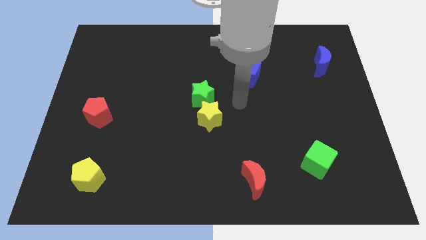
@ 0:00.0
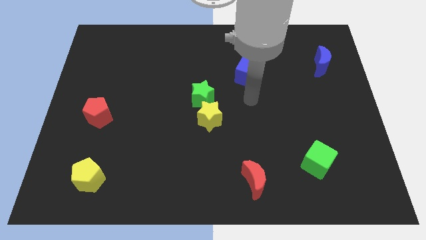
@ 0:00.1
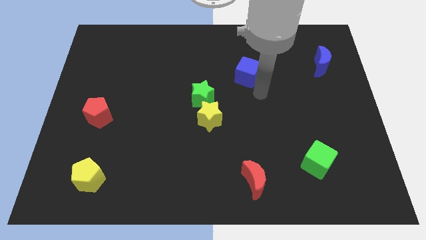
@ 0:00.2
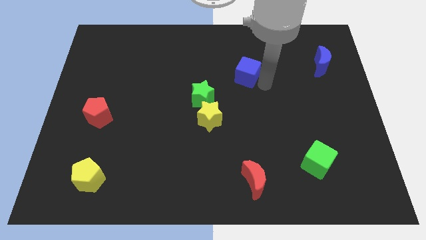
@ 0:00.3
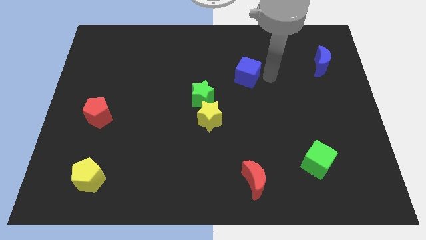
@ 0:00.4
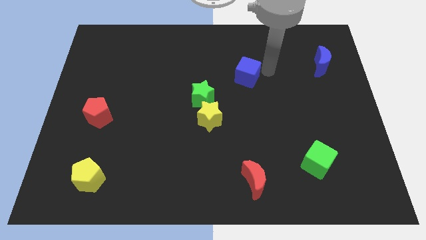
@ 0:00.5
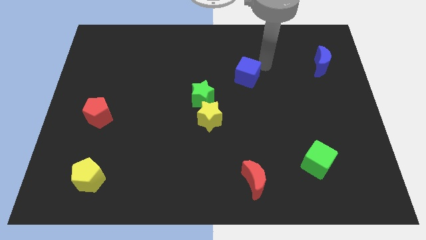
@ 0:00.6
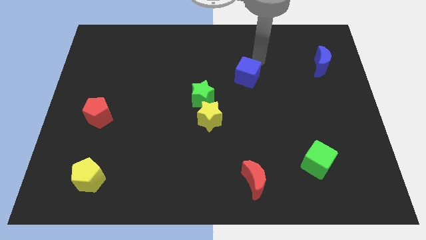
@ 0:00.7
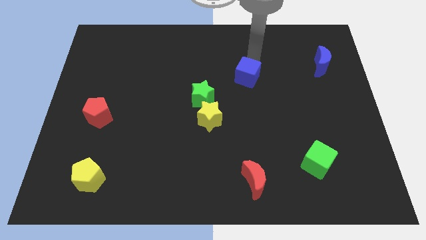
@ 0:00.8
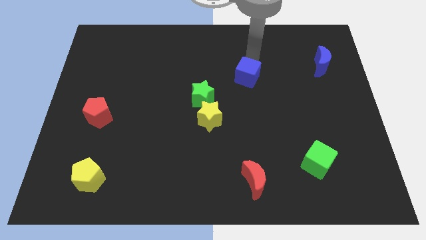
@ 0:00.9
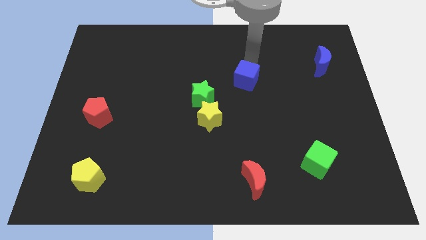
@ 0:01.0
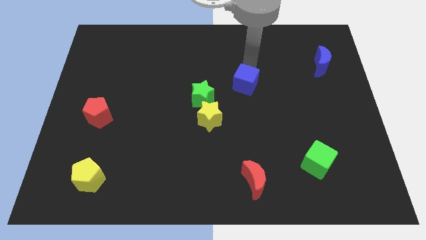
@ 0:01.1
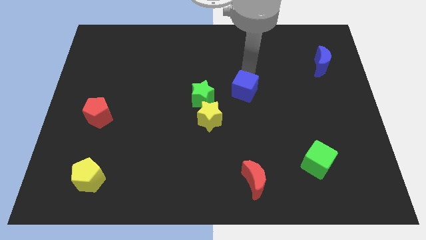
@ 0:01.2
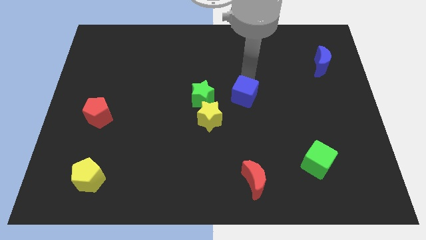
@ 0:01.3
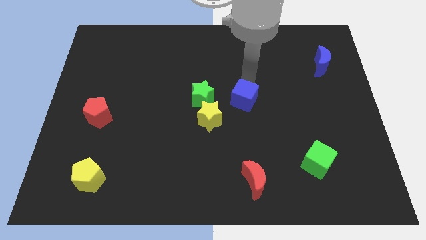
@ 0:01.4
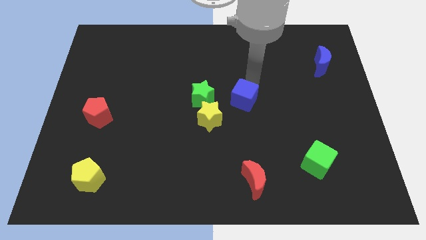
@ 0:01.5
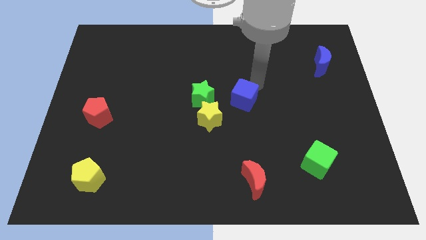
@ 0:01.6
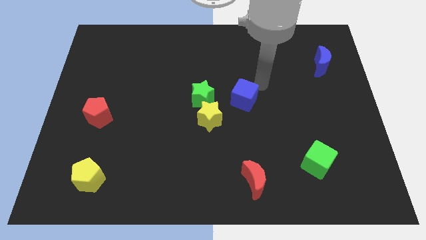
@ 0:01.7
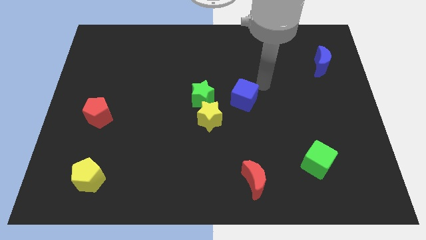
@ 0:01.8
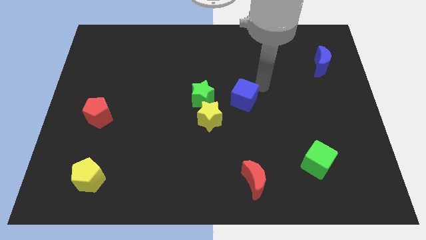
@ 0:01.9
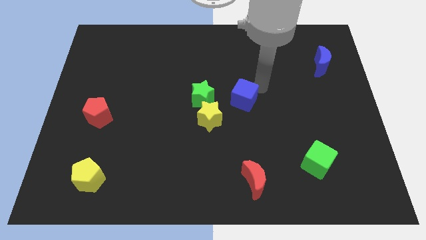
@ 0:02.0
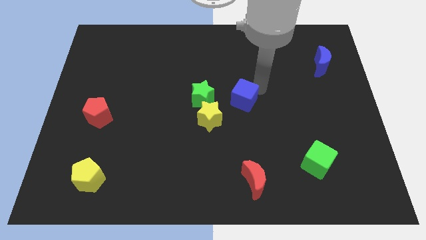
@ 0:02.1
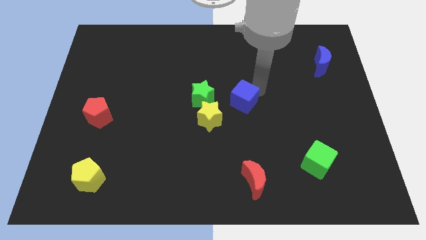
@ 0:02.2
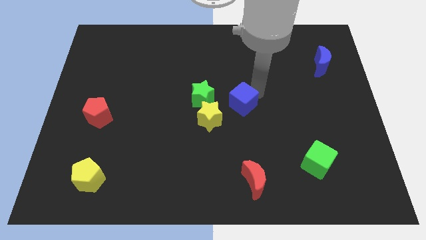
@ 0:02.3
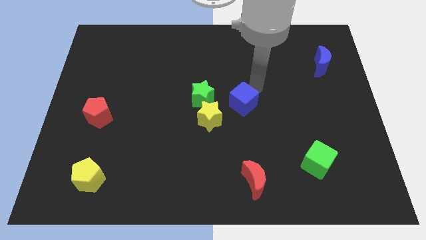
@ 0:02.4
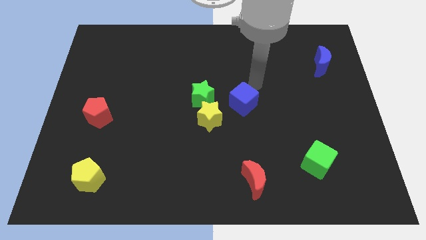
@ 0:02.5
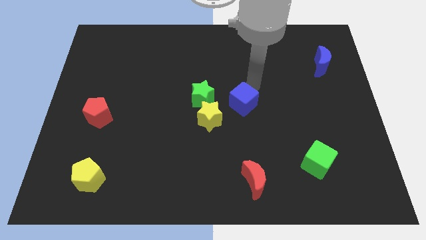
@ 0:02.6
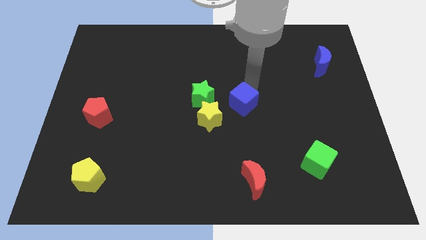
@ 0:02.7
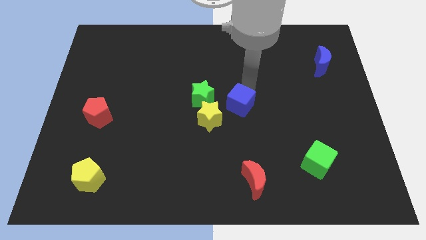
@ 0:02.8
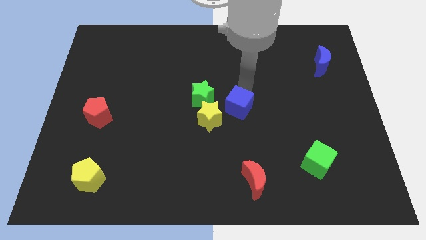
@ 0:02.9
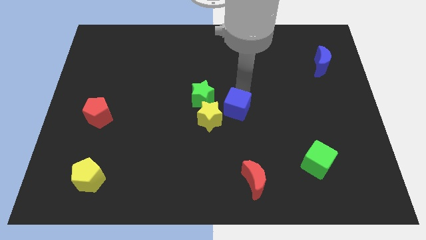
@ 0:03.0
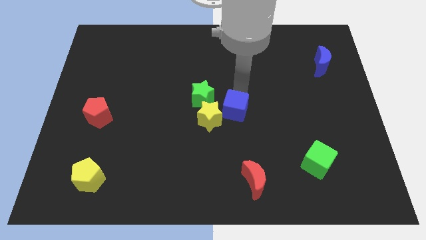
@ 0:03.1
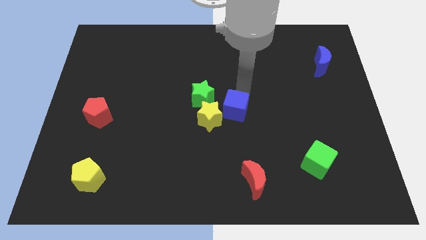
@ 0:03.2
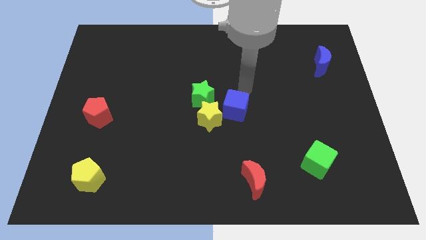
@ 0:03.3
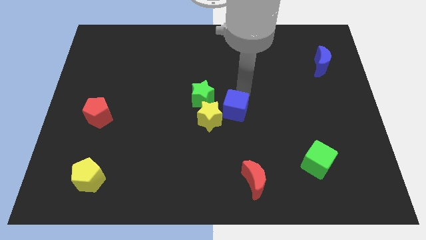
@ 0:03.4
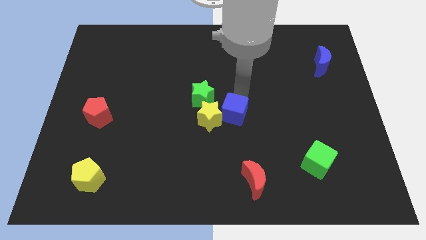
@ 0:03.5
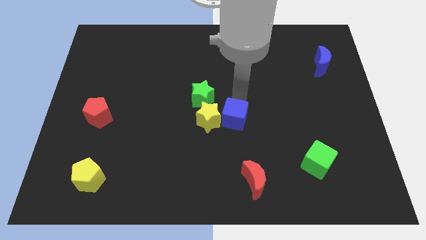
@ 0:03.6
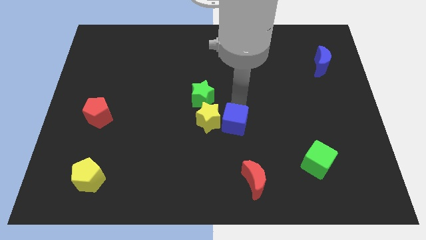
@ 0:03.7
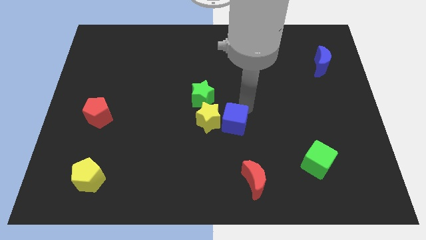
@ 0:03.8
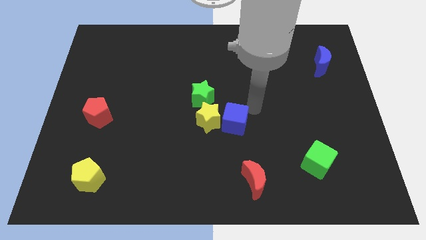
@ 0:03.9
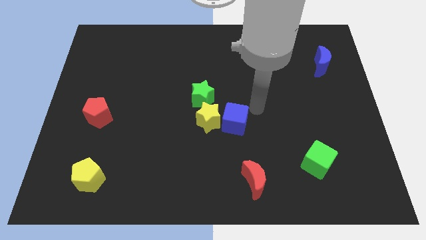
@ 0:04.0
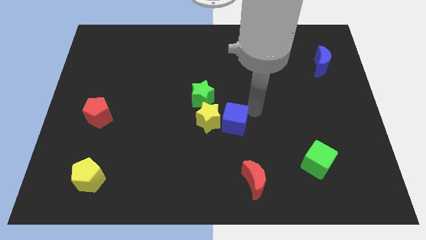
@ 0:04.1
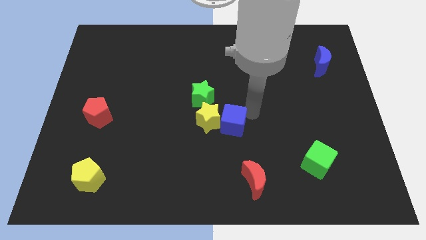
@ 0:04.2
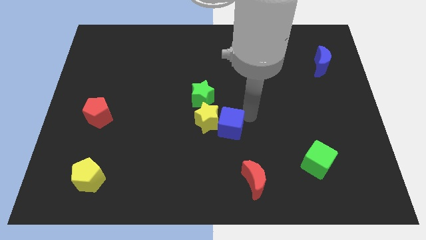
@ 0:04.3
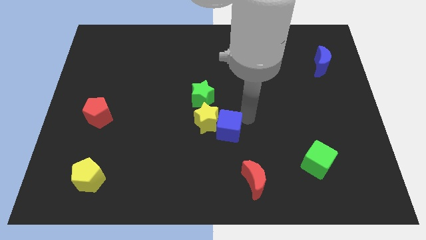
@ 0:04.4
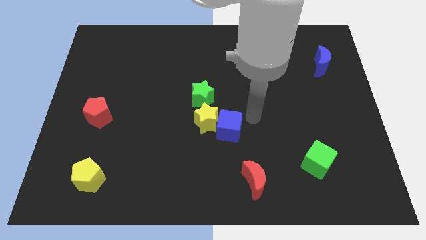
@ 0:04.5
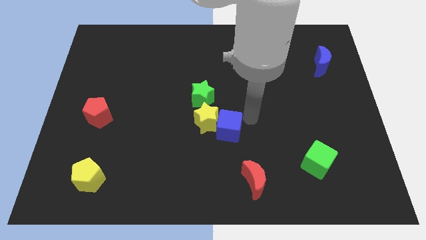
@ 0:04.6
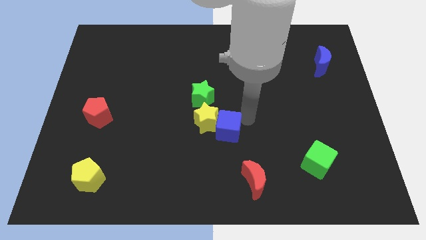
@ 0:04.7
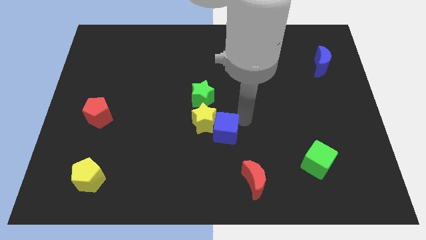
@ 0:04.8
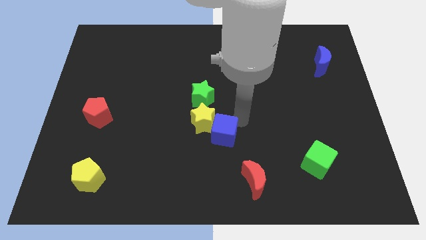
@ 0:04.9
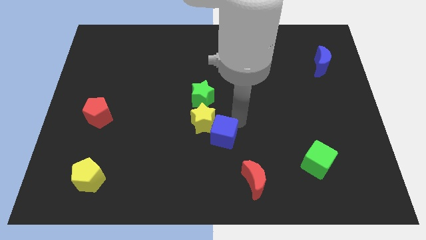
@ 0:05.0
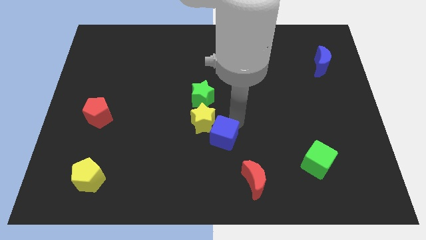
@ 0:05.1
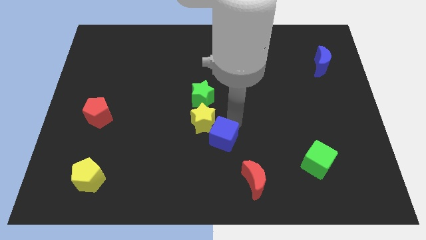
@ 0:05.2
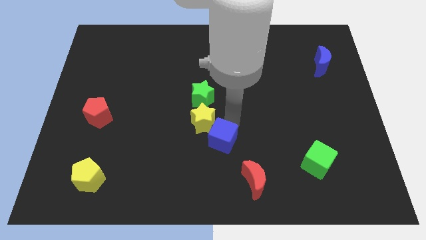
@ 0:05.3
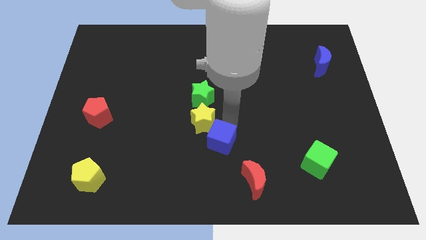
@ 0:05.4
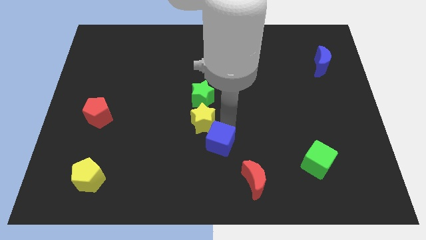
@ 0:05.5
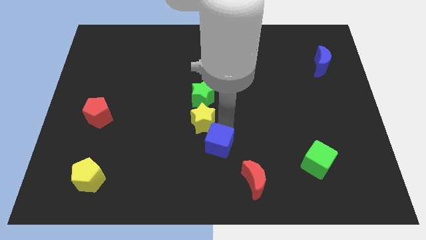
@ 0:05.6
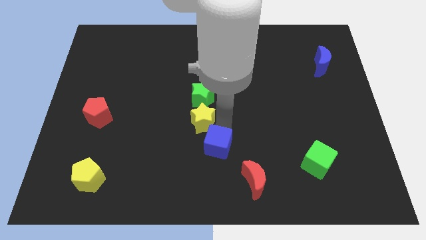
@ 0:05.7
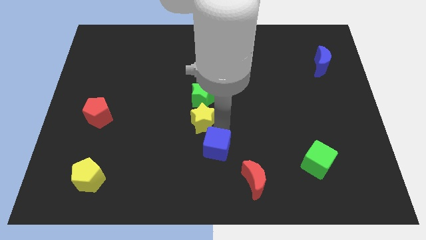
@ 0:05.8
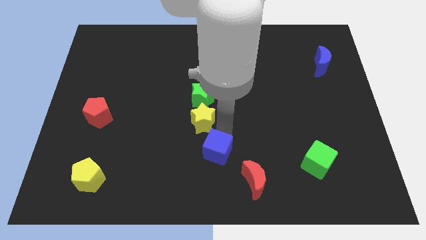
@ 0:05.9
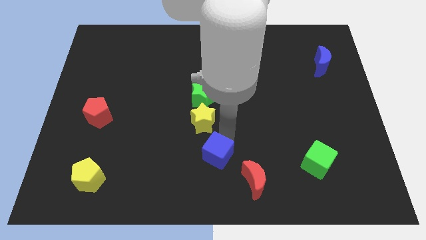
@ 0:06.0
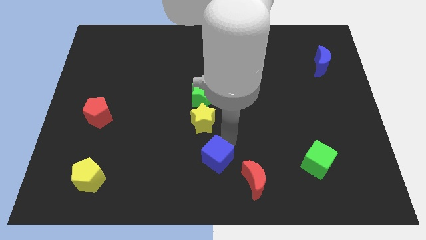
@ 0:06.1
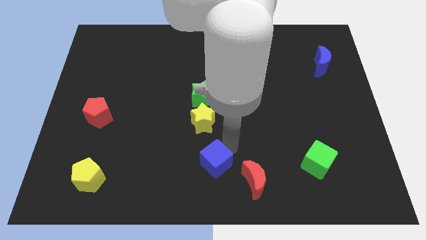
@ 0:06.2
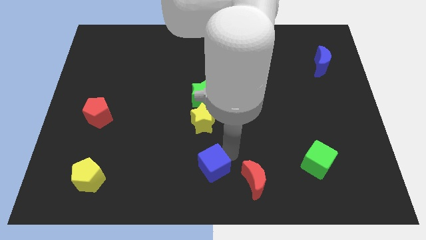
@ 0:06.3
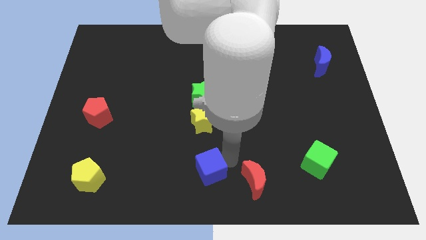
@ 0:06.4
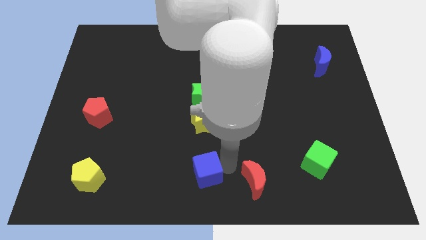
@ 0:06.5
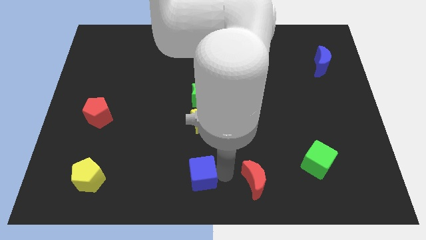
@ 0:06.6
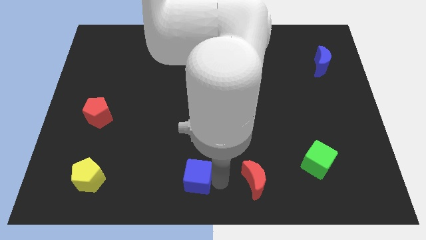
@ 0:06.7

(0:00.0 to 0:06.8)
push the blue cube downwards and to the left diagonally

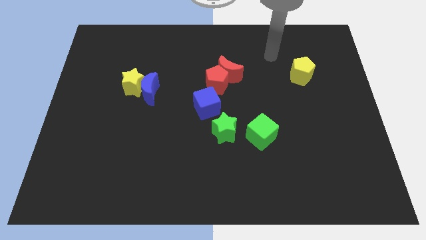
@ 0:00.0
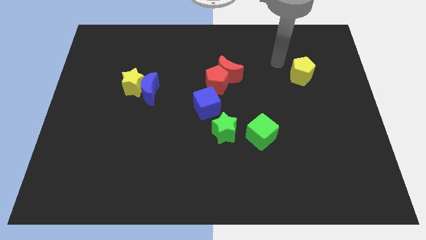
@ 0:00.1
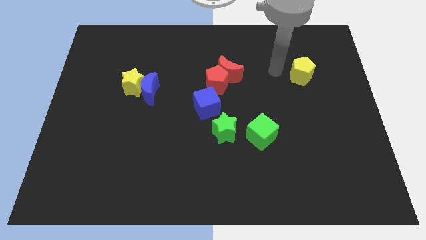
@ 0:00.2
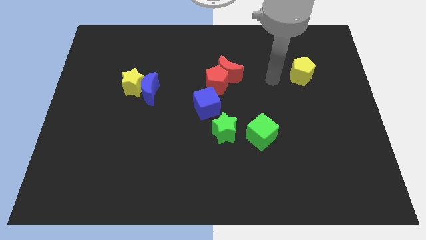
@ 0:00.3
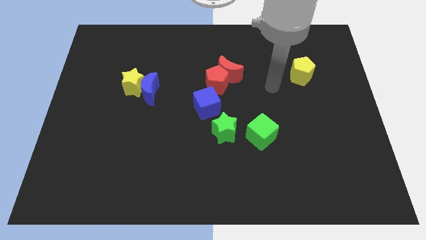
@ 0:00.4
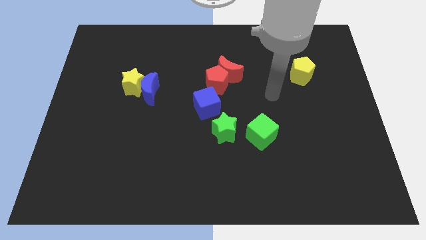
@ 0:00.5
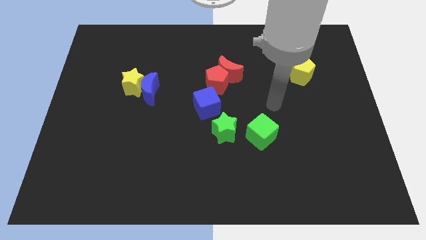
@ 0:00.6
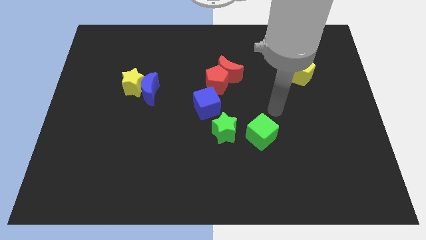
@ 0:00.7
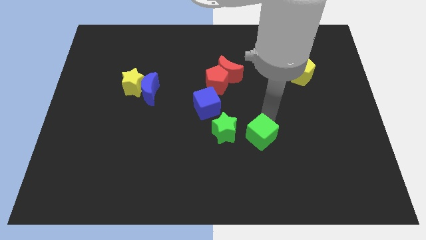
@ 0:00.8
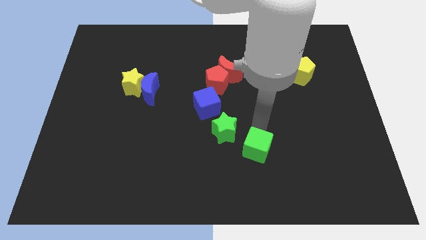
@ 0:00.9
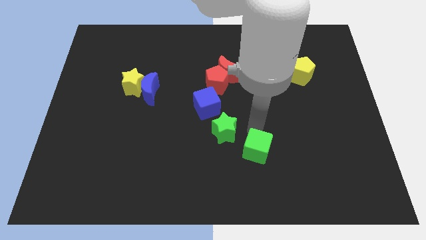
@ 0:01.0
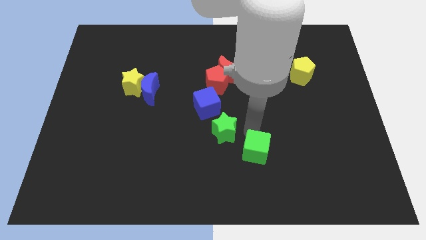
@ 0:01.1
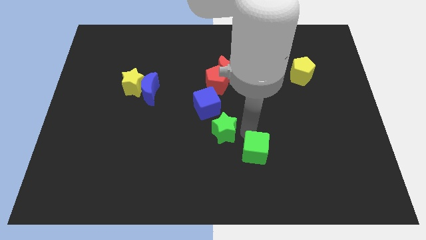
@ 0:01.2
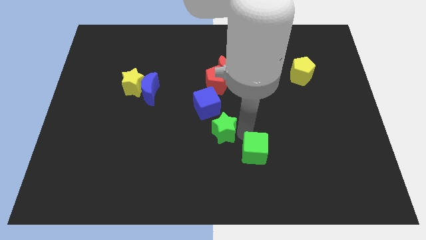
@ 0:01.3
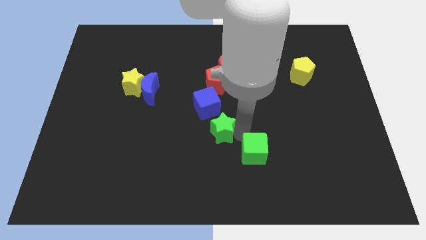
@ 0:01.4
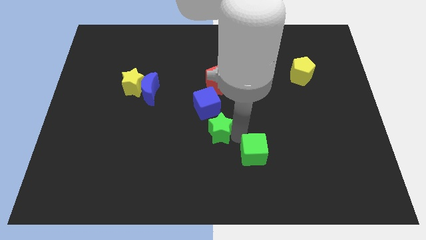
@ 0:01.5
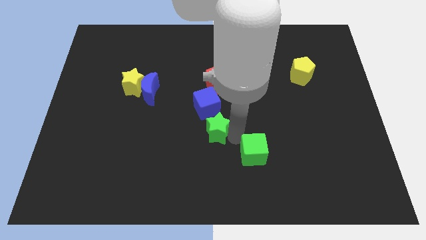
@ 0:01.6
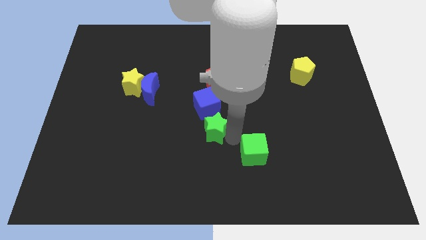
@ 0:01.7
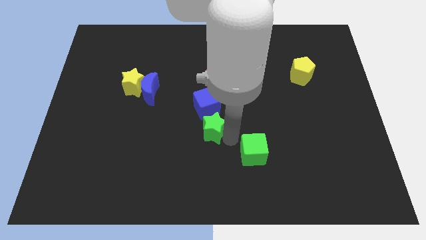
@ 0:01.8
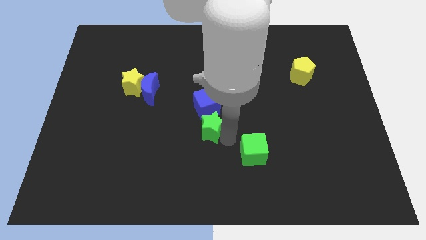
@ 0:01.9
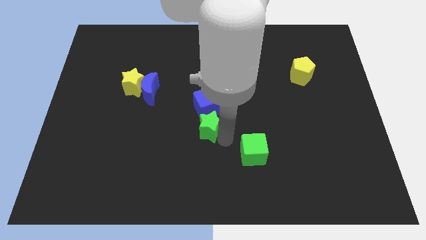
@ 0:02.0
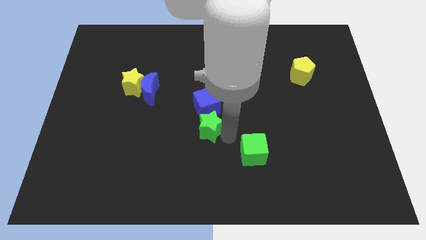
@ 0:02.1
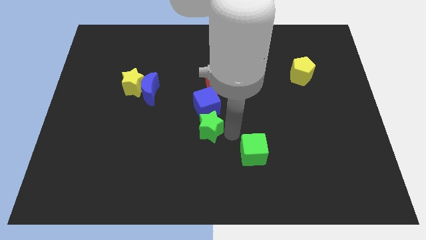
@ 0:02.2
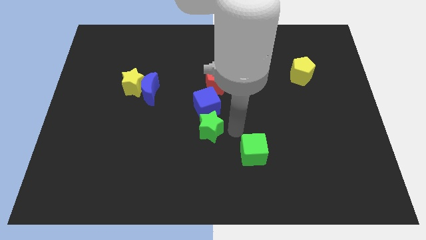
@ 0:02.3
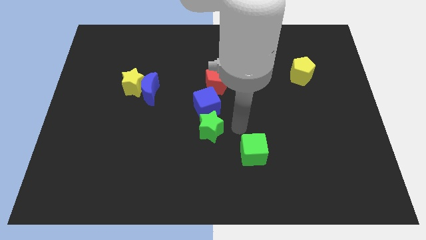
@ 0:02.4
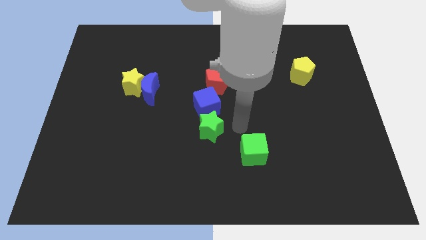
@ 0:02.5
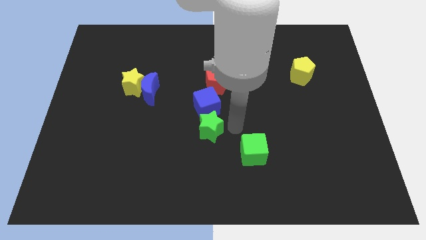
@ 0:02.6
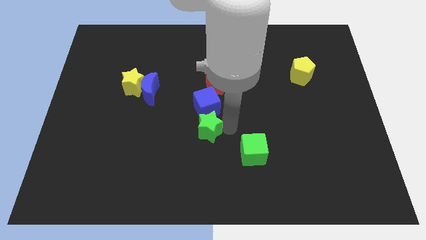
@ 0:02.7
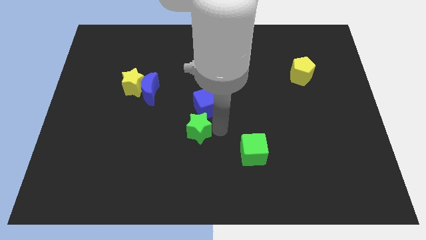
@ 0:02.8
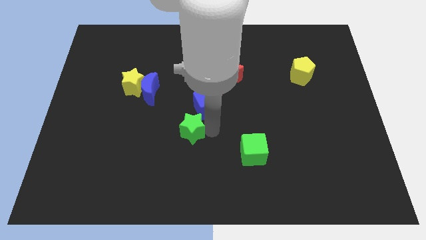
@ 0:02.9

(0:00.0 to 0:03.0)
push the green star to the left a little bit
